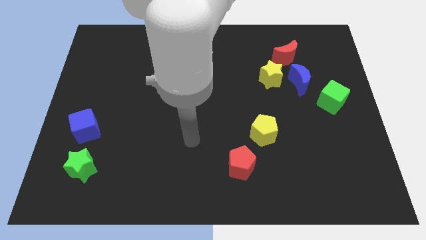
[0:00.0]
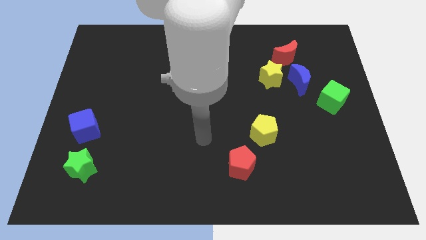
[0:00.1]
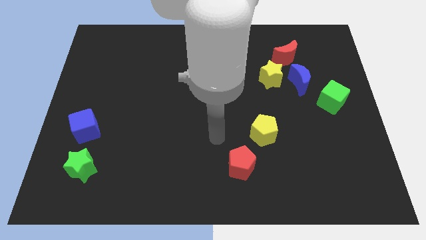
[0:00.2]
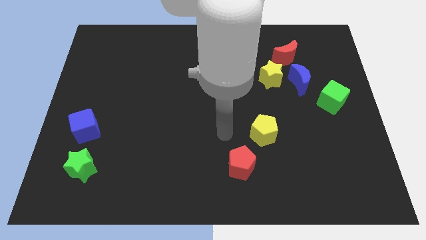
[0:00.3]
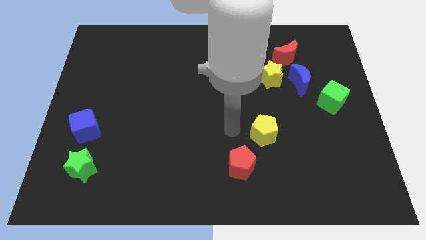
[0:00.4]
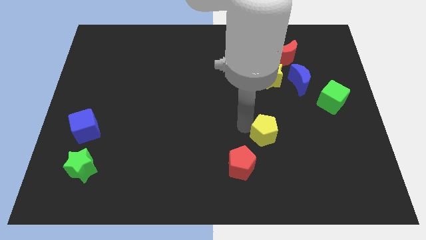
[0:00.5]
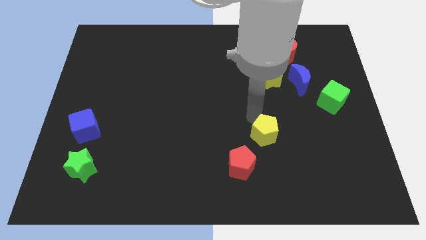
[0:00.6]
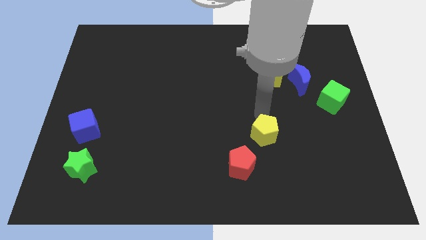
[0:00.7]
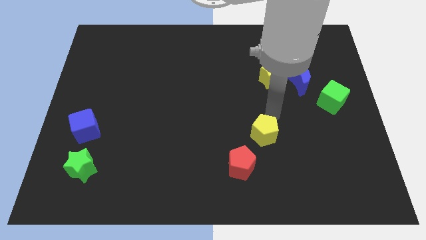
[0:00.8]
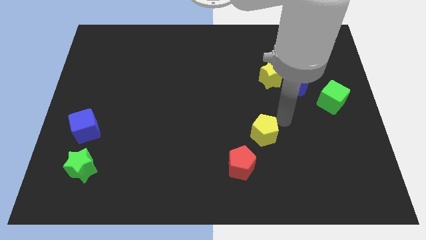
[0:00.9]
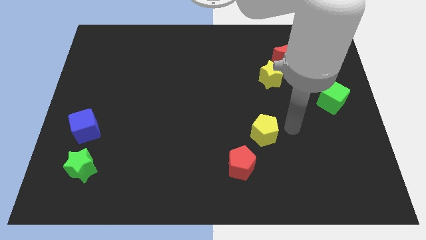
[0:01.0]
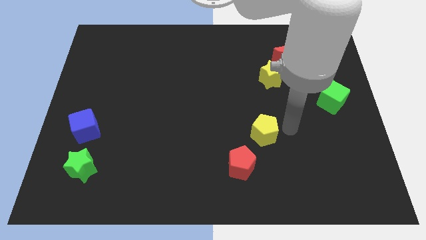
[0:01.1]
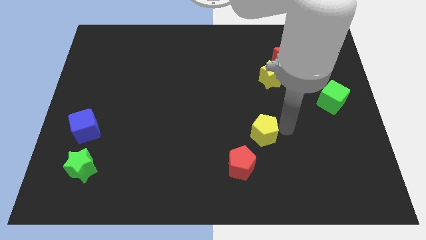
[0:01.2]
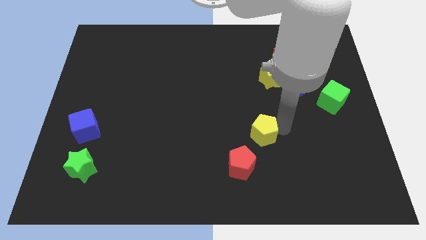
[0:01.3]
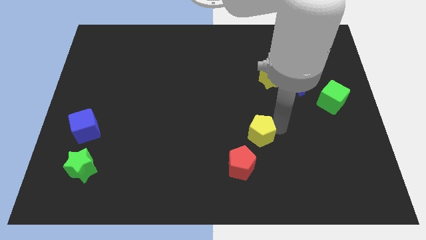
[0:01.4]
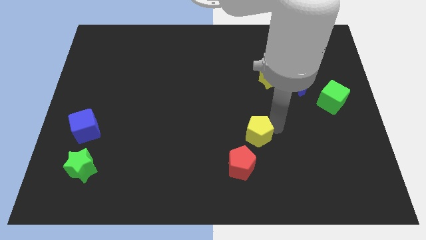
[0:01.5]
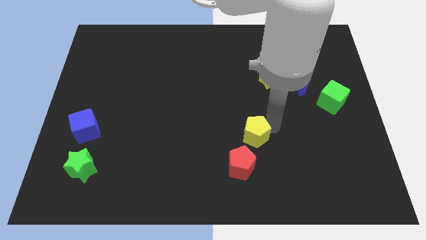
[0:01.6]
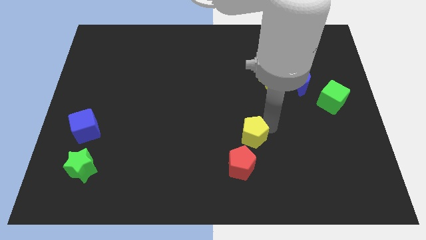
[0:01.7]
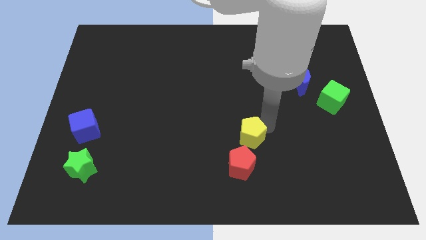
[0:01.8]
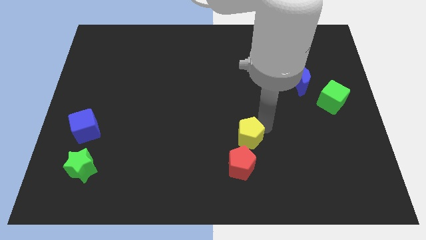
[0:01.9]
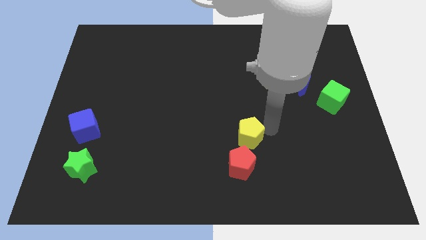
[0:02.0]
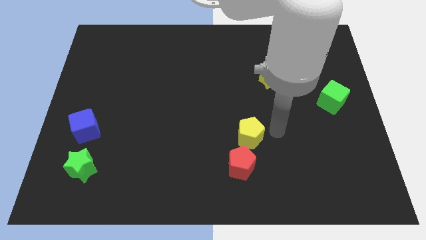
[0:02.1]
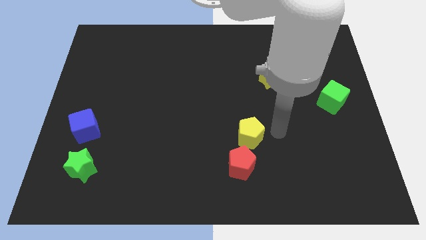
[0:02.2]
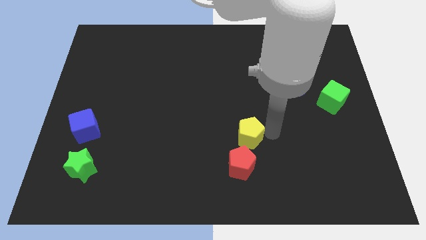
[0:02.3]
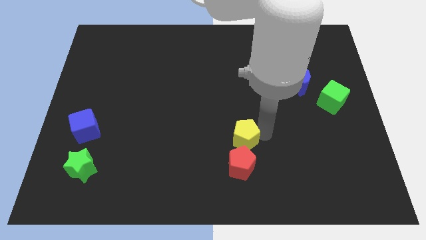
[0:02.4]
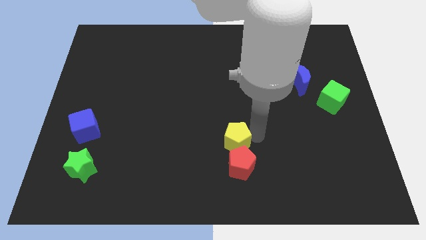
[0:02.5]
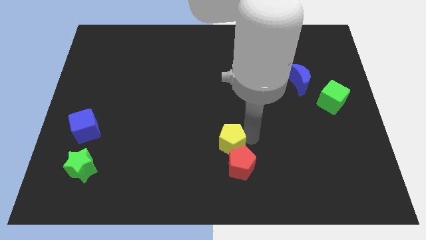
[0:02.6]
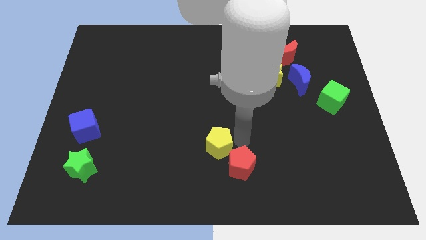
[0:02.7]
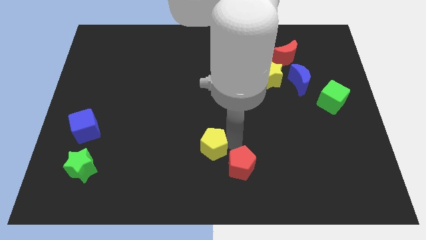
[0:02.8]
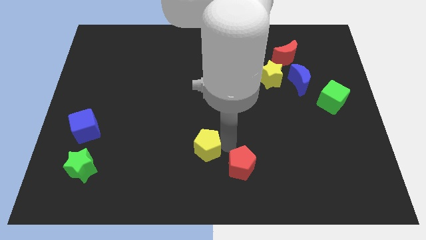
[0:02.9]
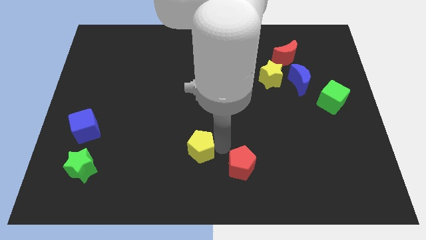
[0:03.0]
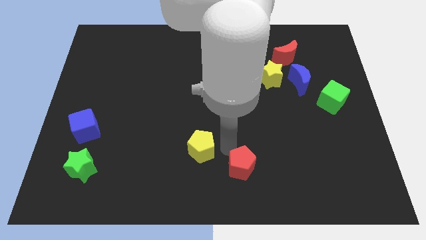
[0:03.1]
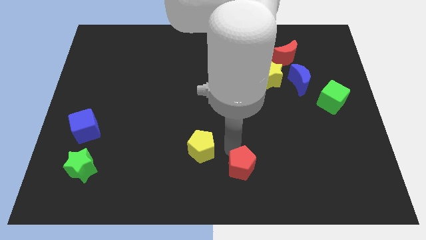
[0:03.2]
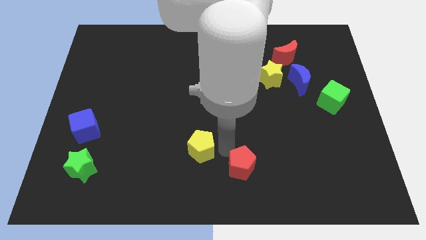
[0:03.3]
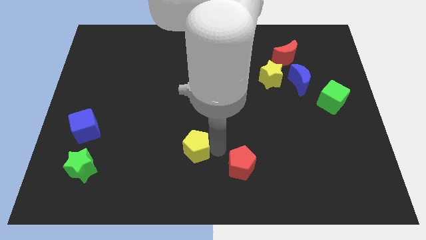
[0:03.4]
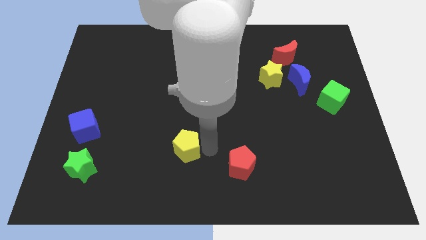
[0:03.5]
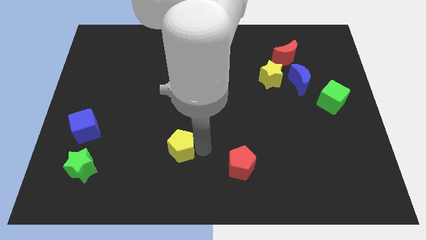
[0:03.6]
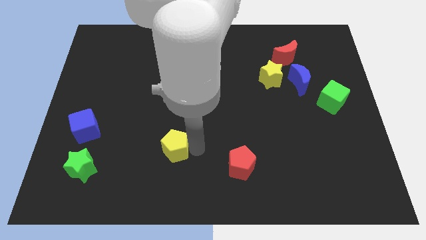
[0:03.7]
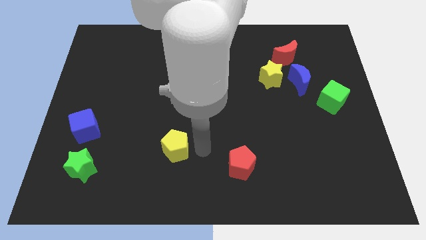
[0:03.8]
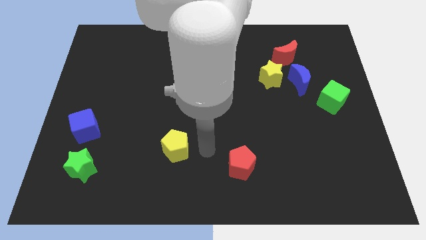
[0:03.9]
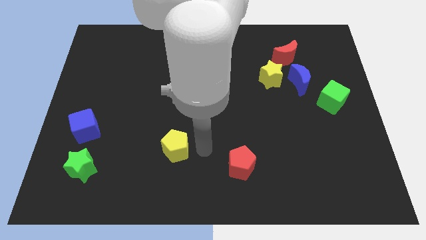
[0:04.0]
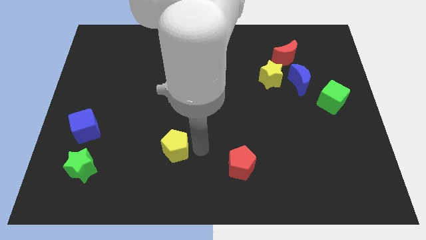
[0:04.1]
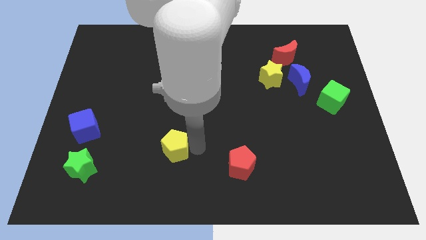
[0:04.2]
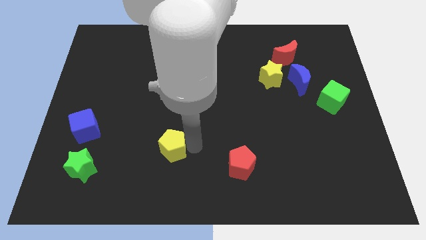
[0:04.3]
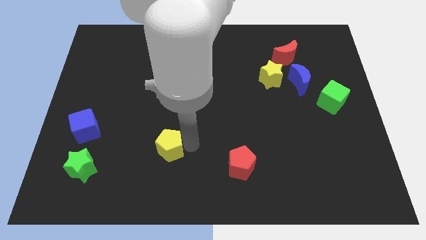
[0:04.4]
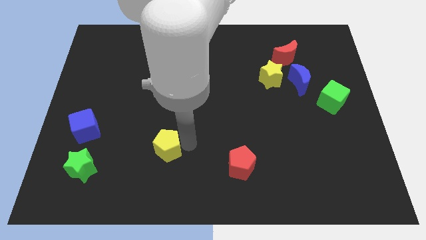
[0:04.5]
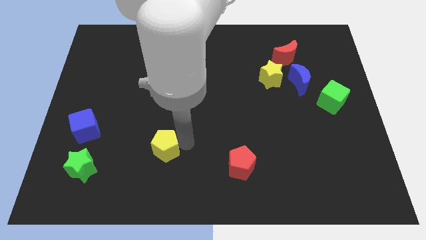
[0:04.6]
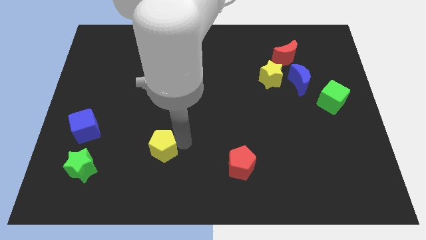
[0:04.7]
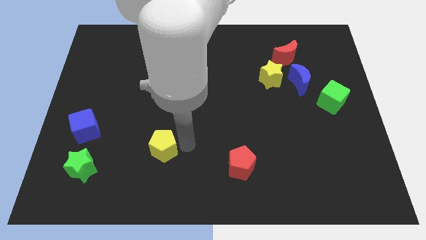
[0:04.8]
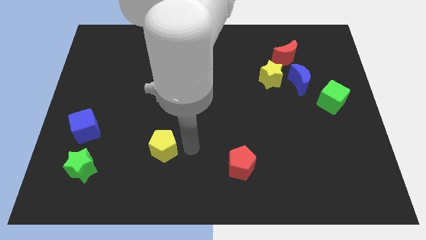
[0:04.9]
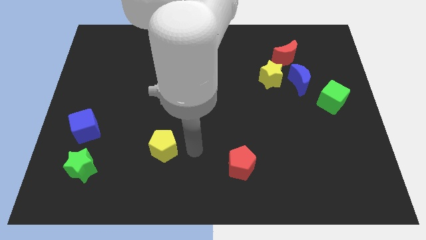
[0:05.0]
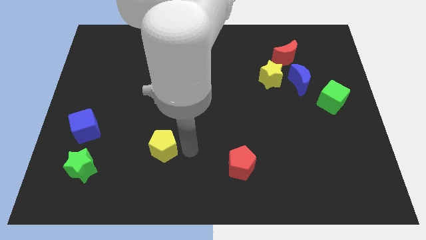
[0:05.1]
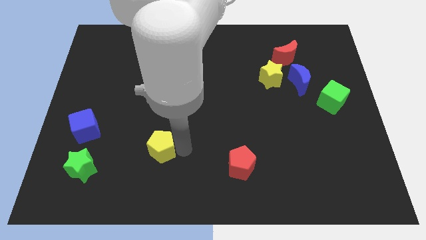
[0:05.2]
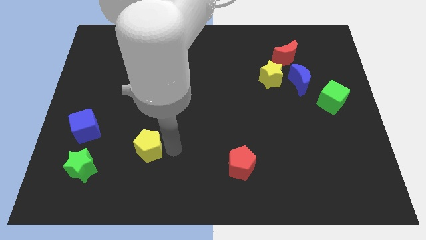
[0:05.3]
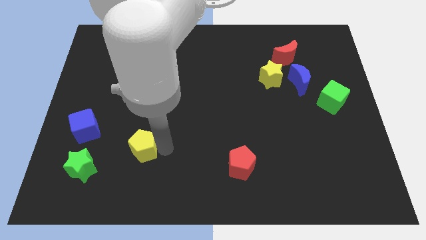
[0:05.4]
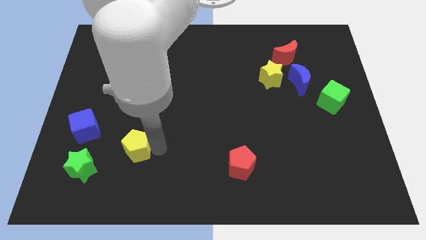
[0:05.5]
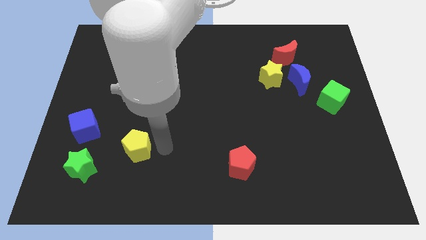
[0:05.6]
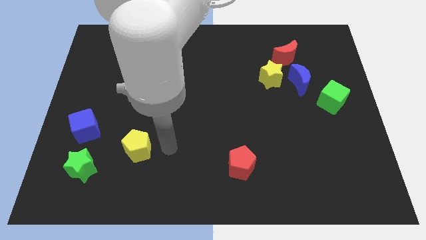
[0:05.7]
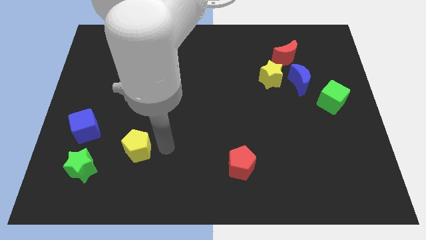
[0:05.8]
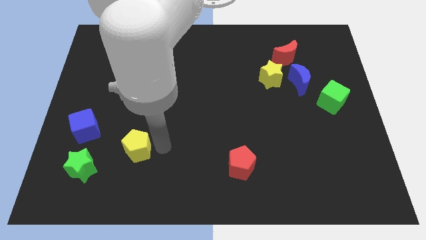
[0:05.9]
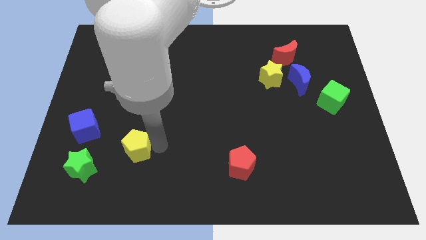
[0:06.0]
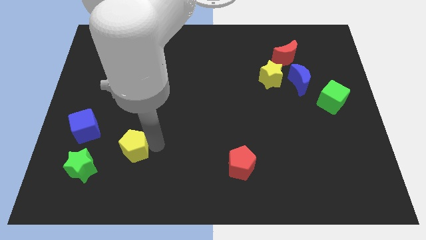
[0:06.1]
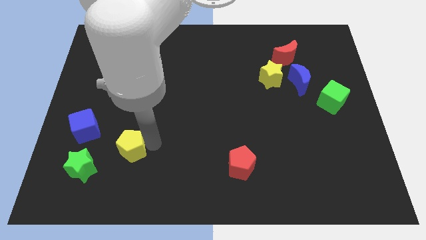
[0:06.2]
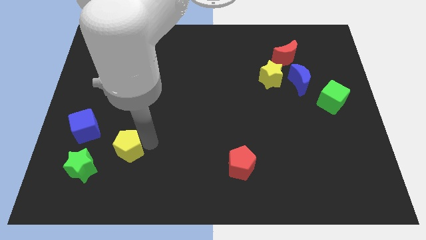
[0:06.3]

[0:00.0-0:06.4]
put the yellow pentagon to the bottom right of the blue cube
